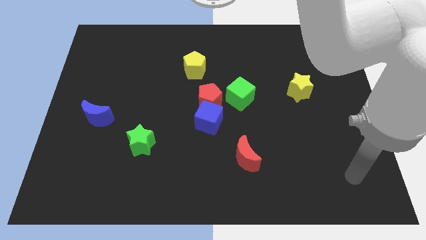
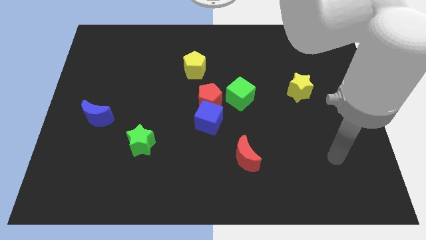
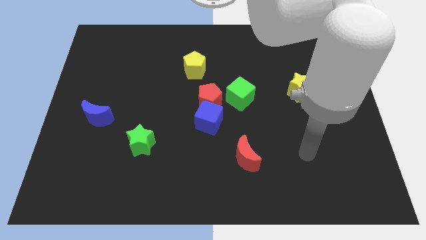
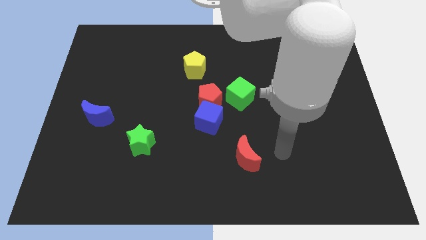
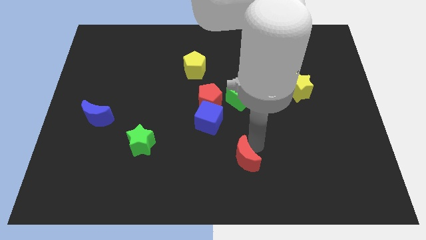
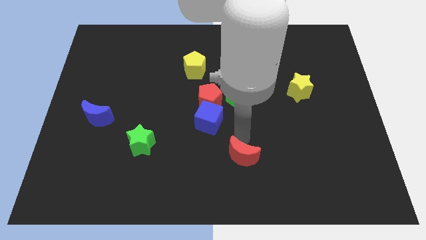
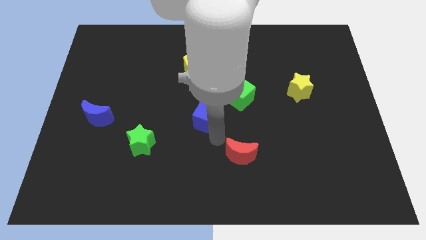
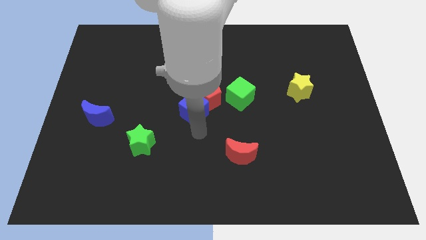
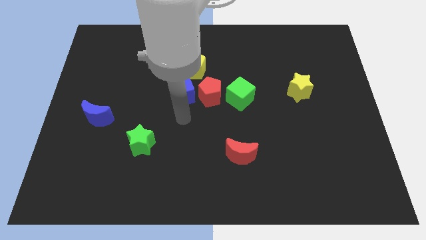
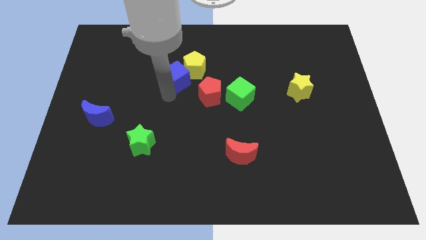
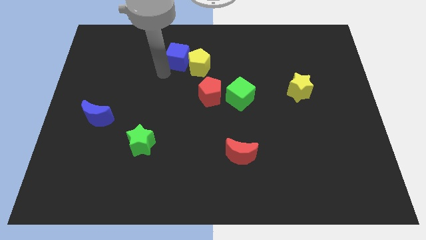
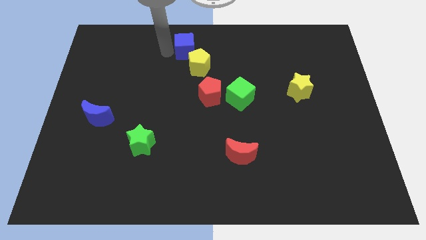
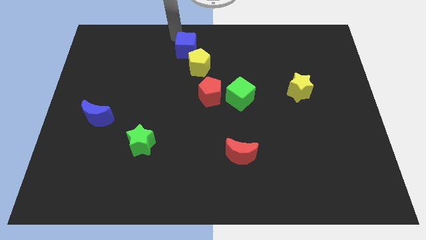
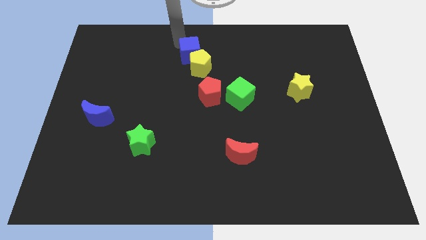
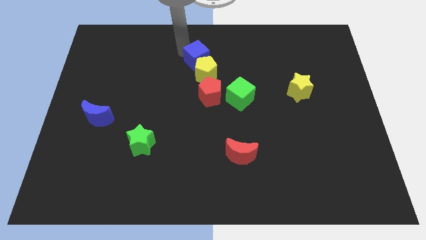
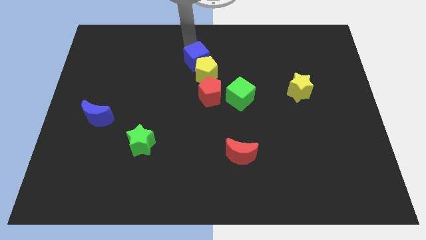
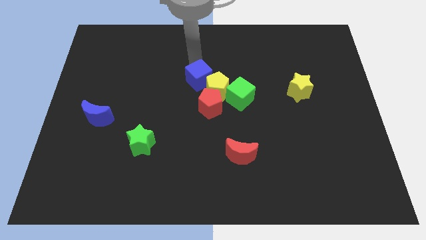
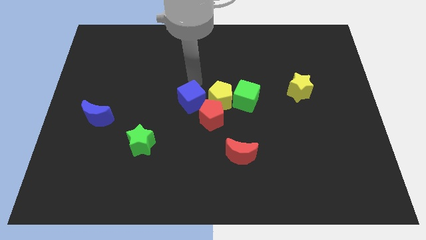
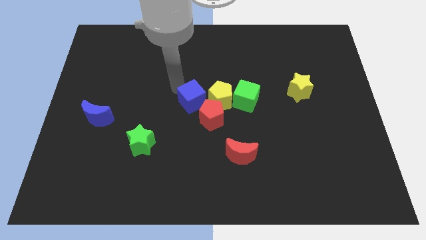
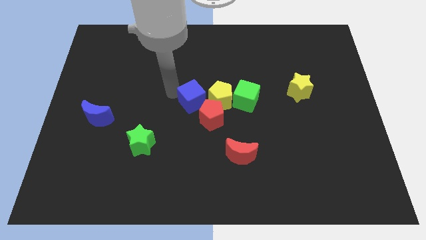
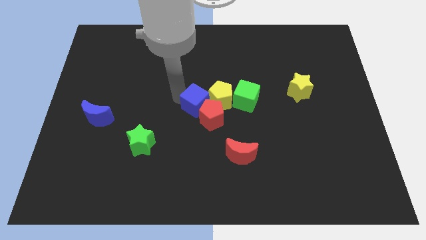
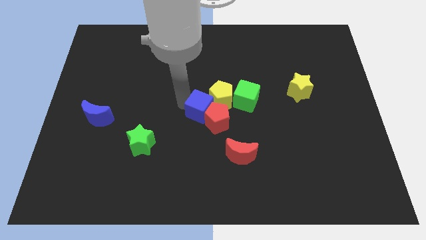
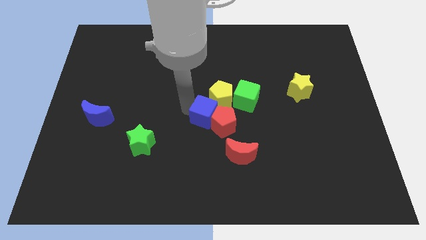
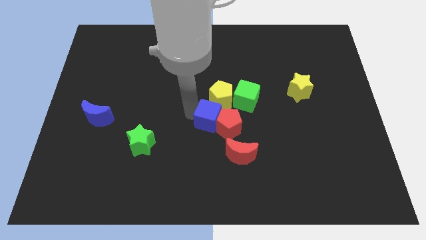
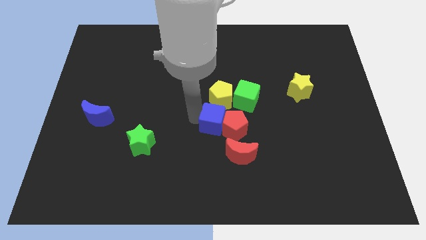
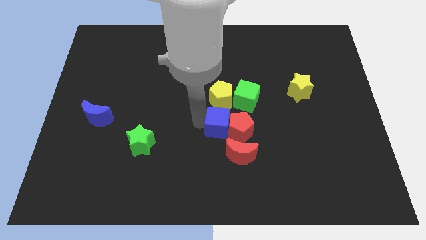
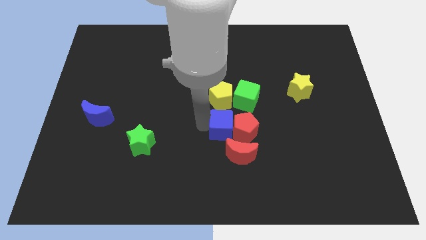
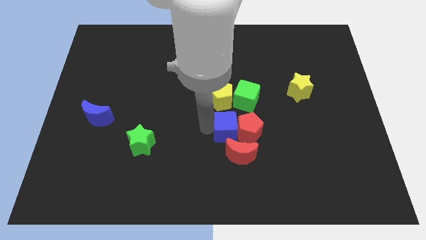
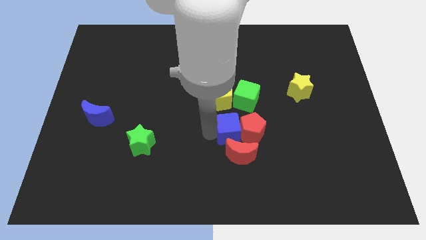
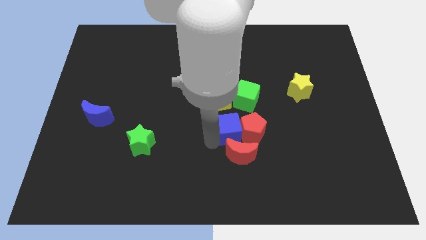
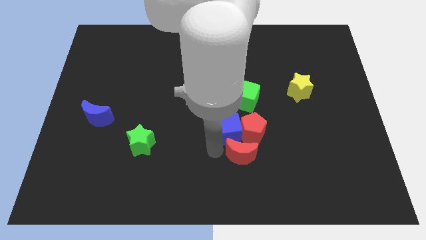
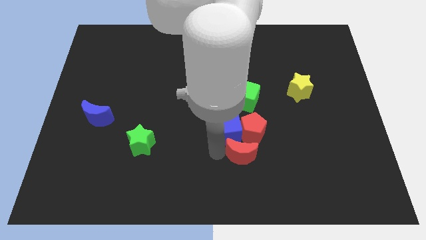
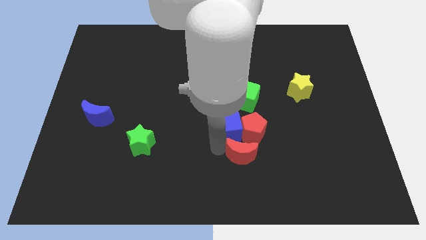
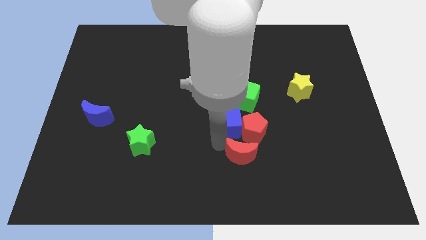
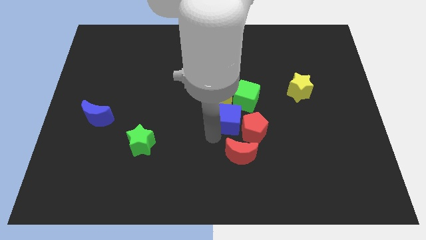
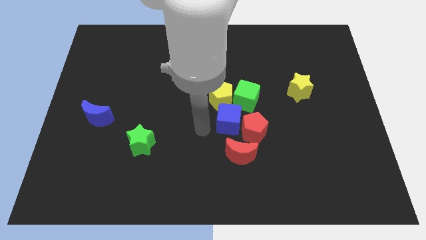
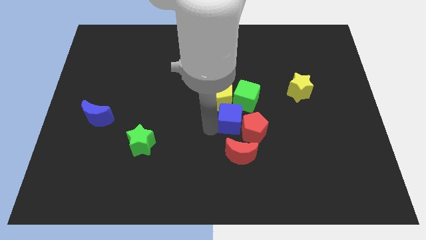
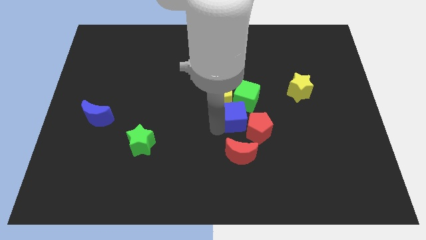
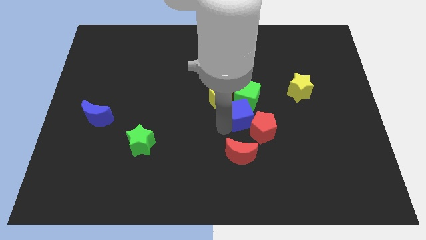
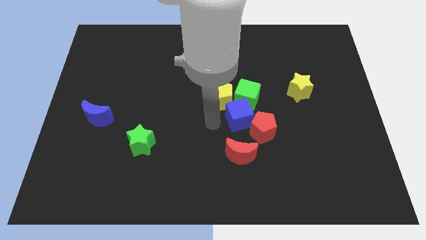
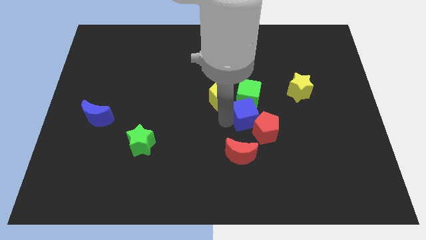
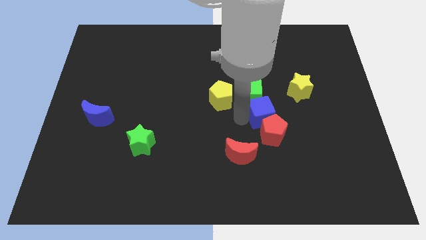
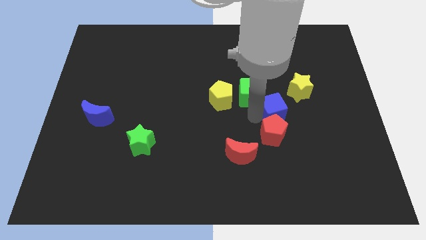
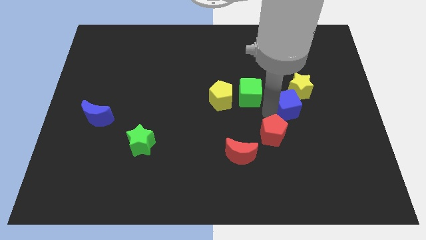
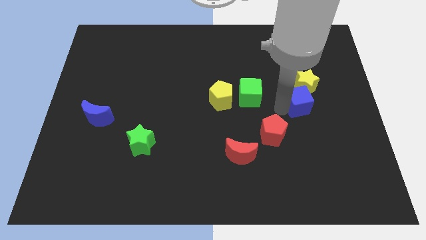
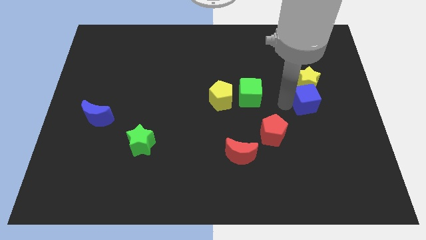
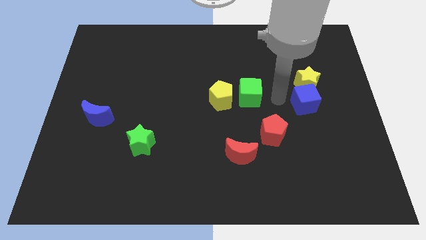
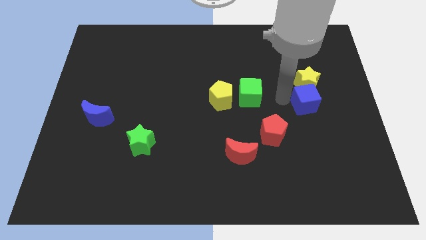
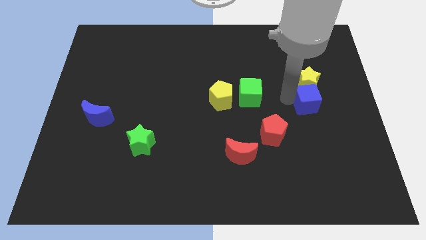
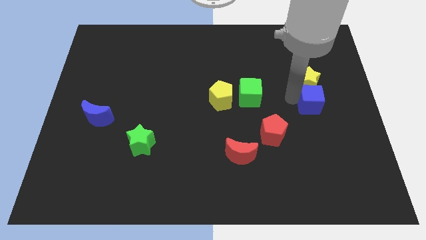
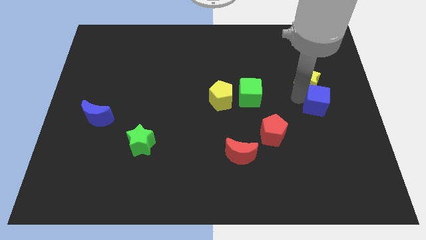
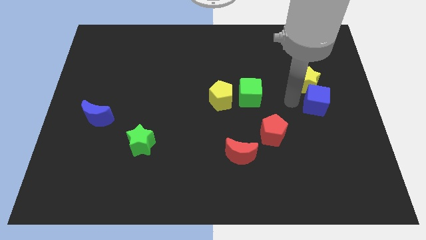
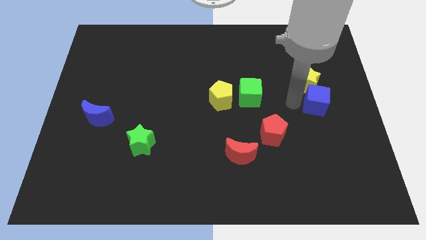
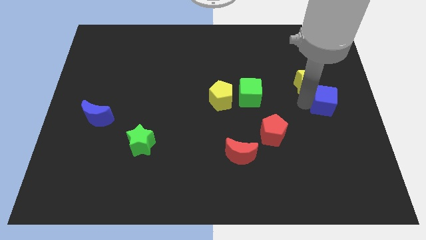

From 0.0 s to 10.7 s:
push the blue cube to the right side

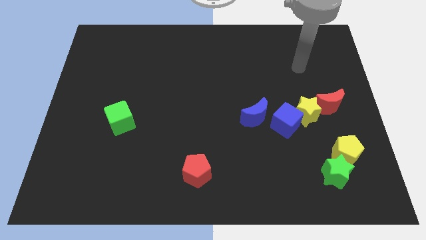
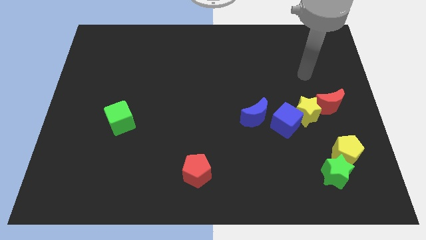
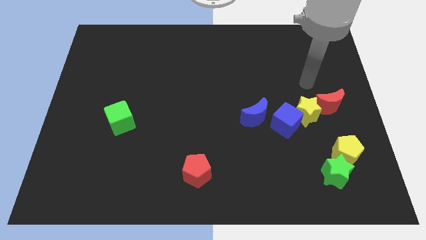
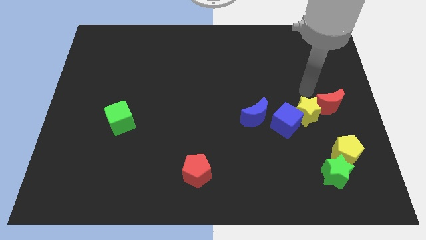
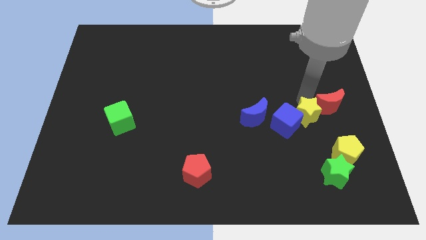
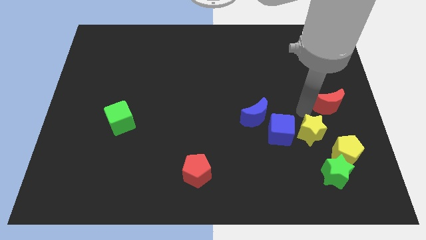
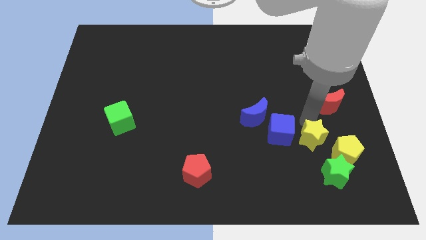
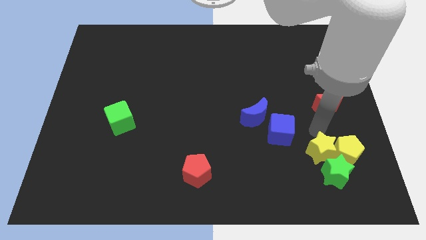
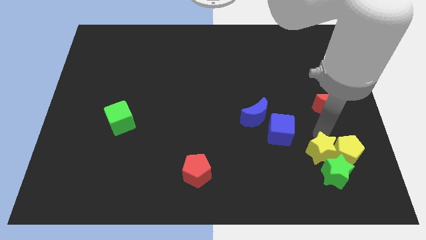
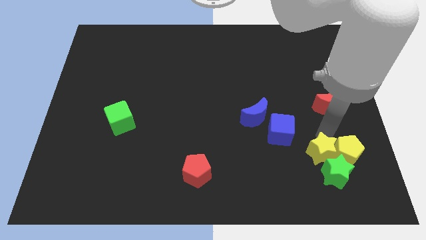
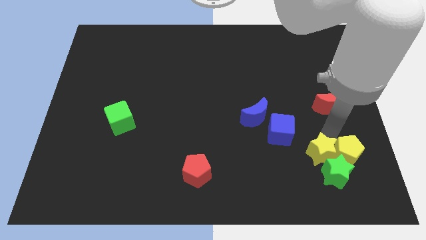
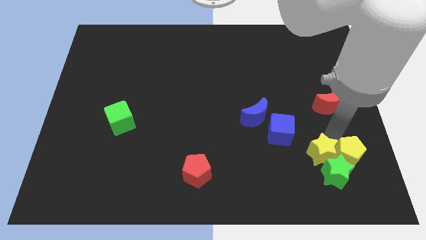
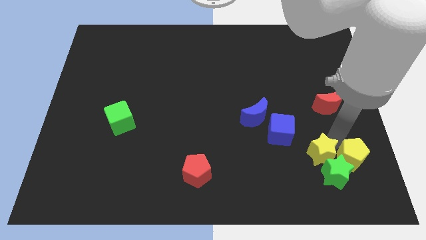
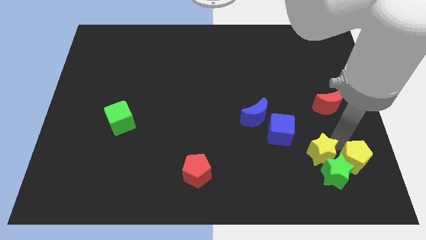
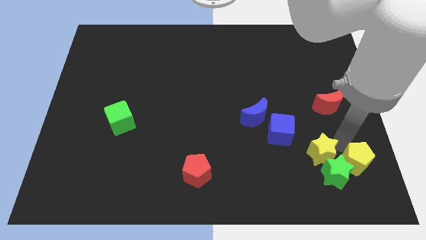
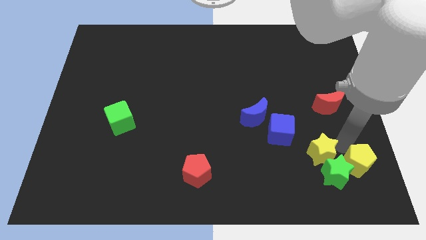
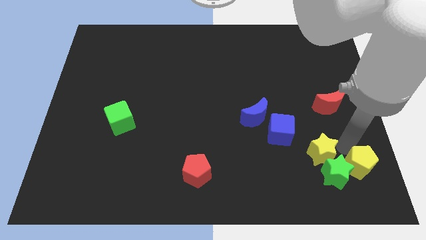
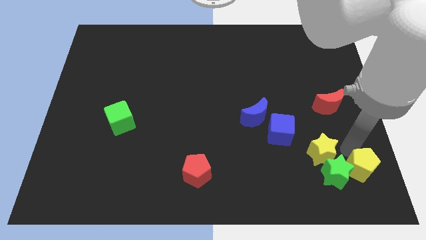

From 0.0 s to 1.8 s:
put the yellow pentagon to the bottom right of the board
